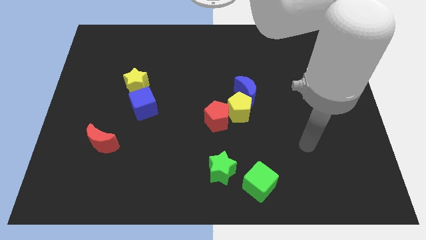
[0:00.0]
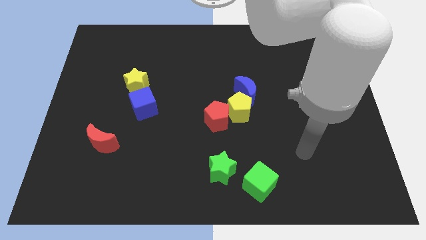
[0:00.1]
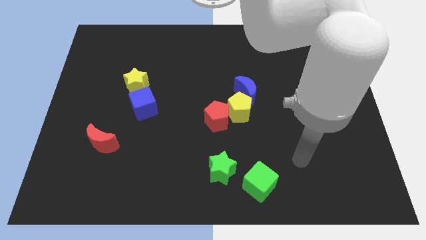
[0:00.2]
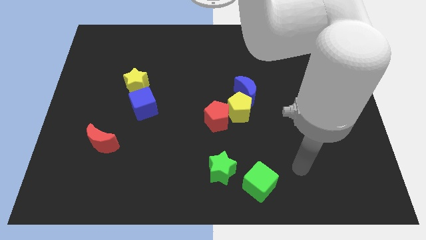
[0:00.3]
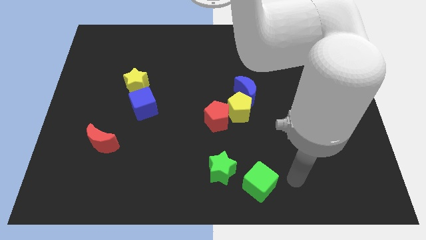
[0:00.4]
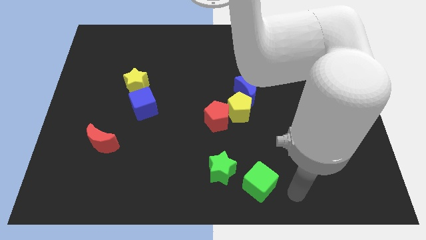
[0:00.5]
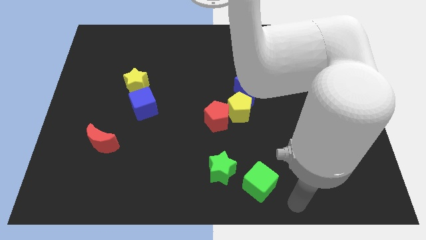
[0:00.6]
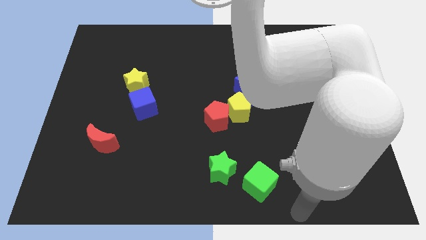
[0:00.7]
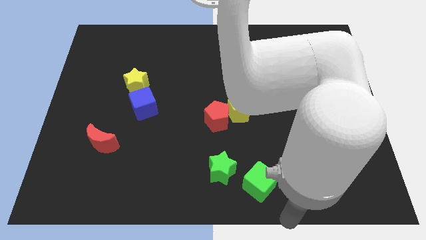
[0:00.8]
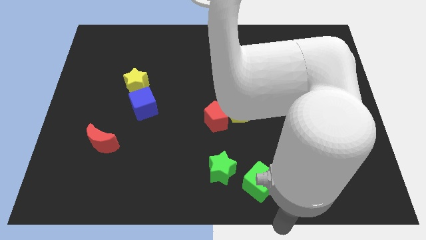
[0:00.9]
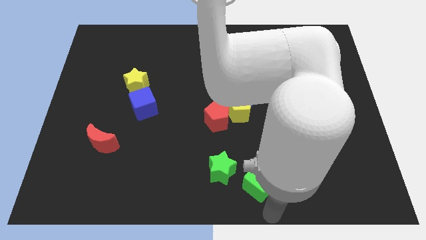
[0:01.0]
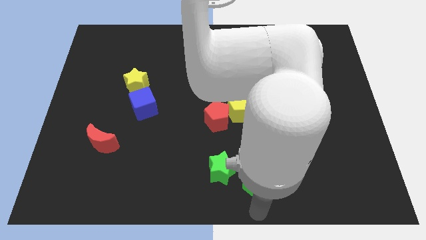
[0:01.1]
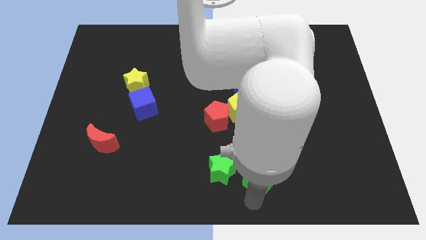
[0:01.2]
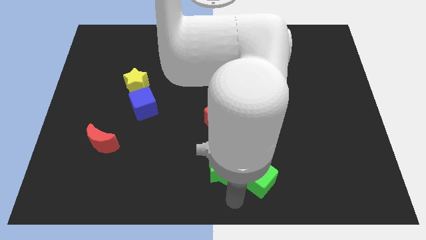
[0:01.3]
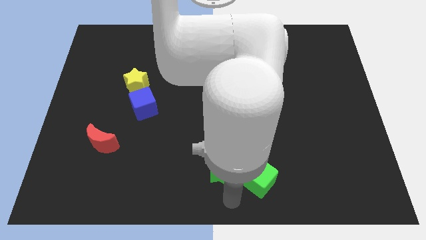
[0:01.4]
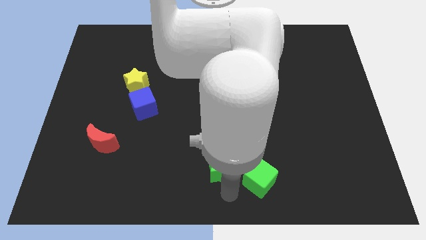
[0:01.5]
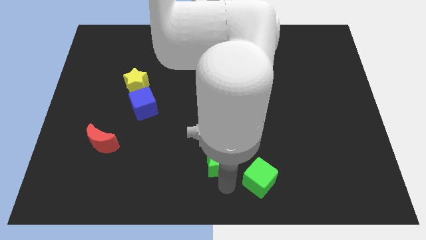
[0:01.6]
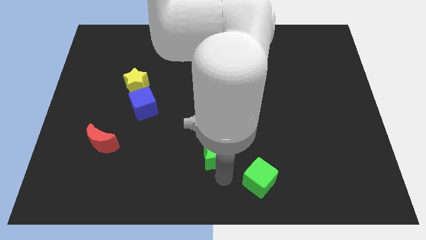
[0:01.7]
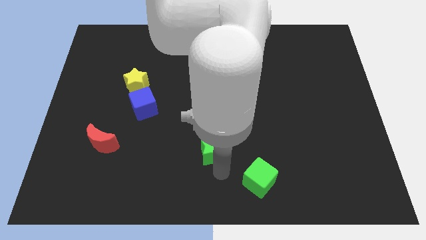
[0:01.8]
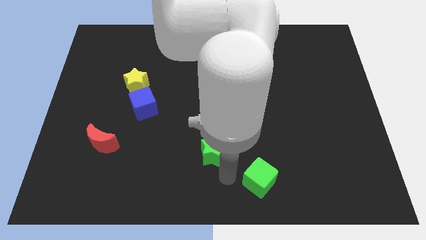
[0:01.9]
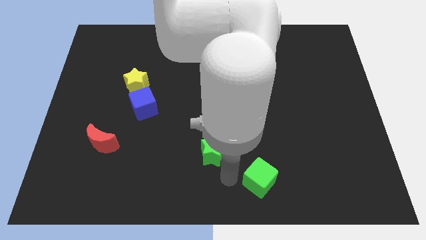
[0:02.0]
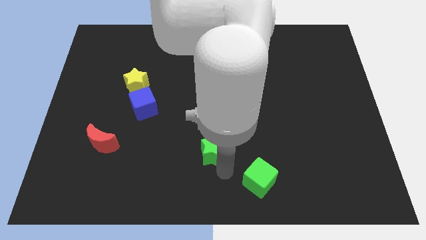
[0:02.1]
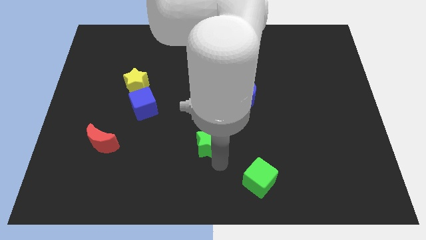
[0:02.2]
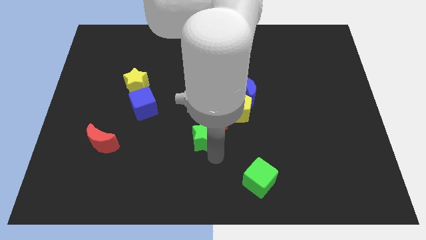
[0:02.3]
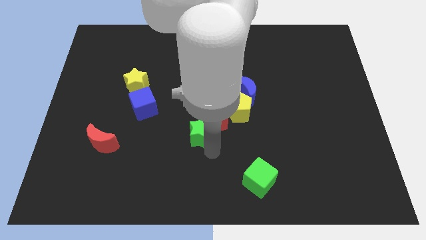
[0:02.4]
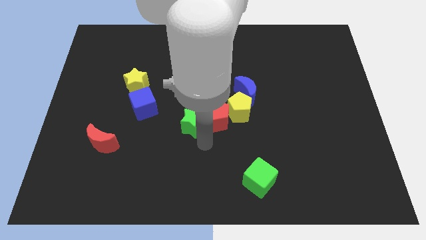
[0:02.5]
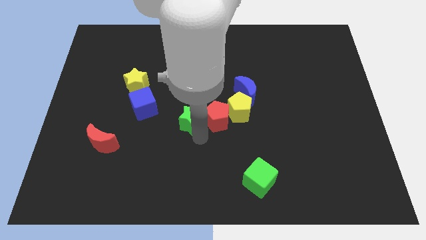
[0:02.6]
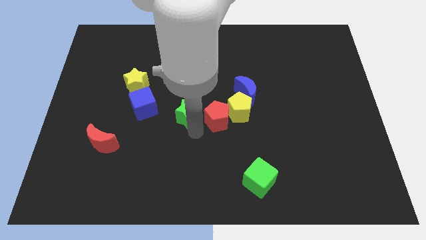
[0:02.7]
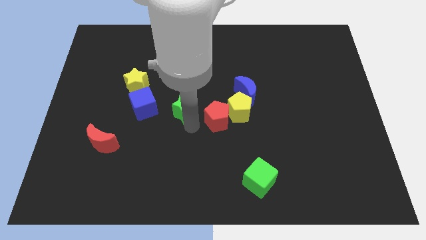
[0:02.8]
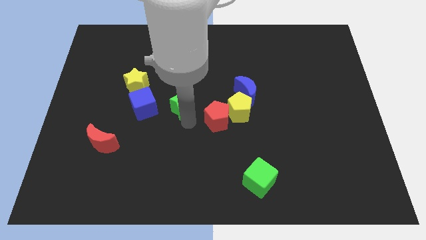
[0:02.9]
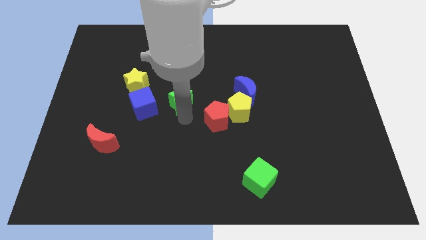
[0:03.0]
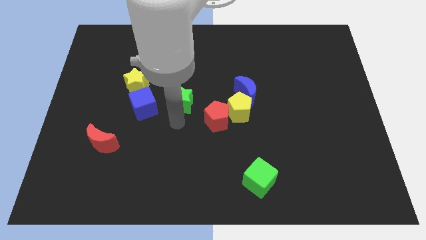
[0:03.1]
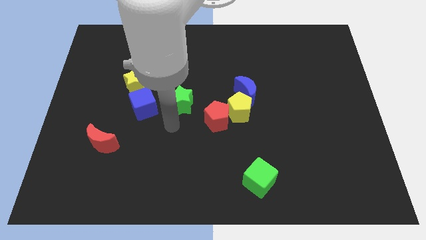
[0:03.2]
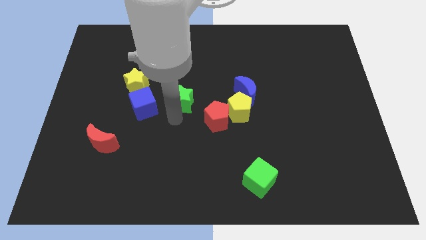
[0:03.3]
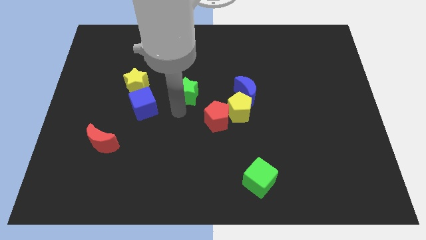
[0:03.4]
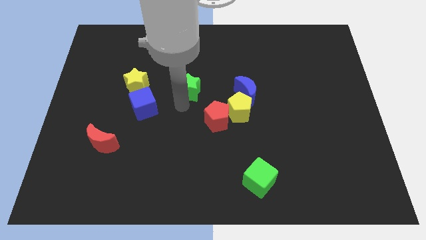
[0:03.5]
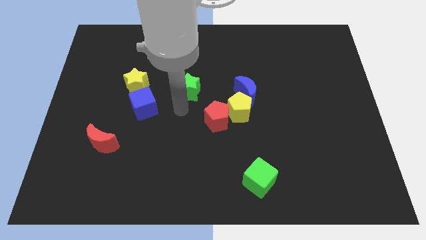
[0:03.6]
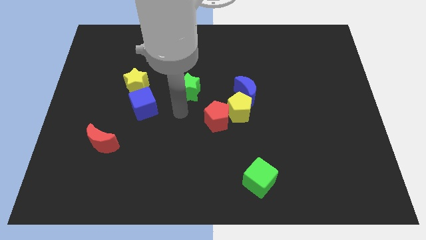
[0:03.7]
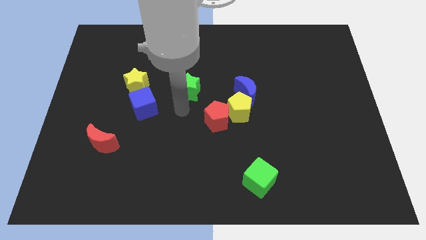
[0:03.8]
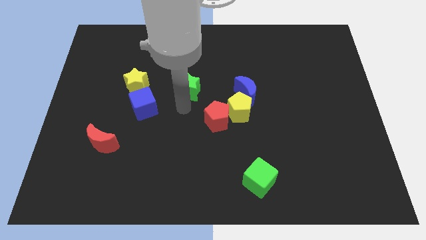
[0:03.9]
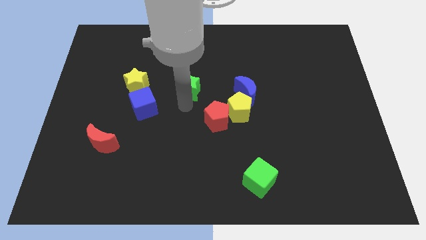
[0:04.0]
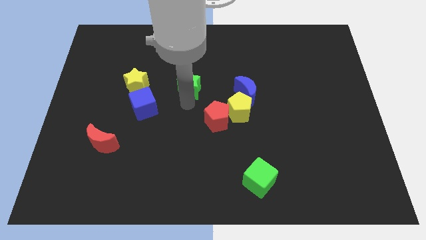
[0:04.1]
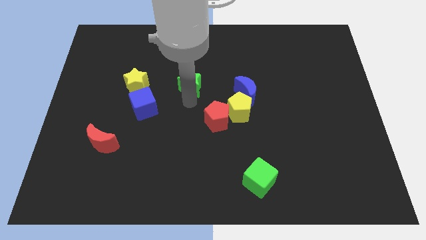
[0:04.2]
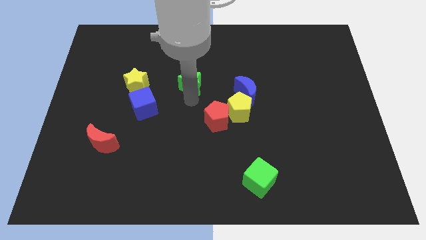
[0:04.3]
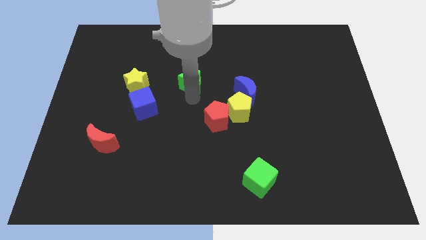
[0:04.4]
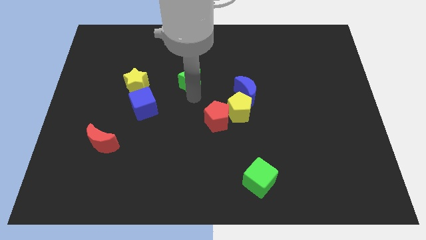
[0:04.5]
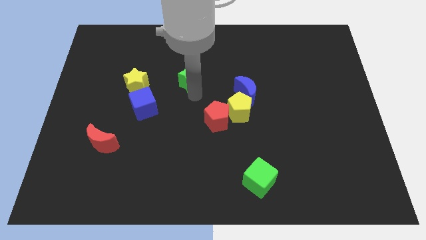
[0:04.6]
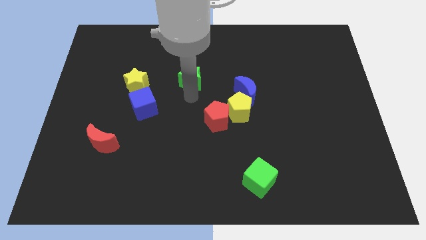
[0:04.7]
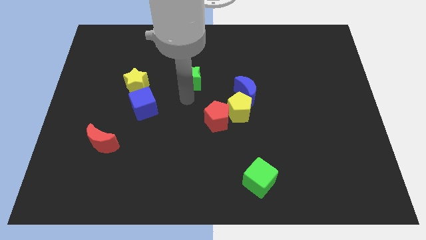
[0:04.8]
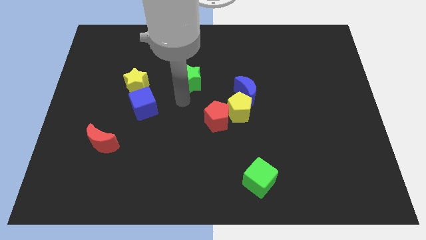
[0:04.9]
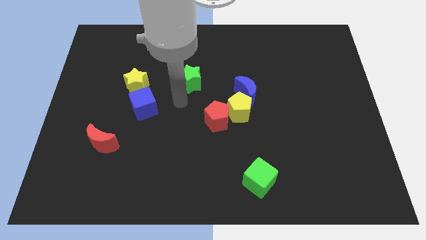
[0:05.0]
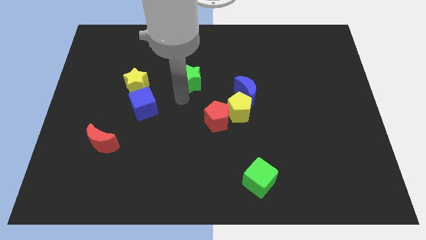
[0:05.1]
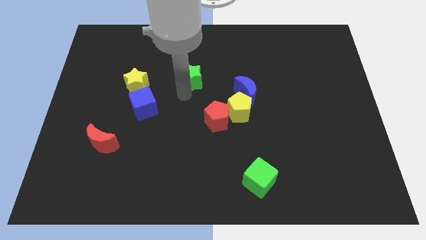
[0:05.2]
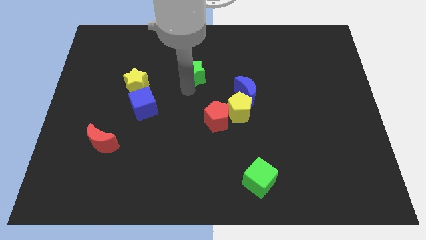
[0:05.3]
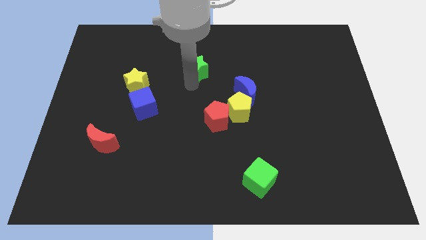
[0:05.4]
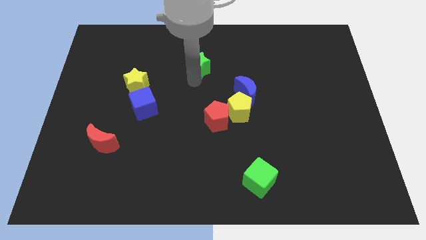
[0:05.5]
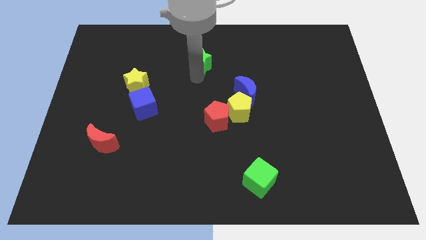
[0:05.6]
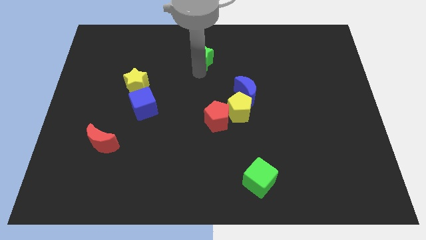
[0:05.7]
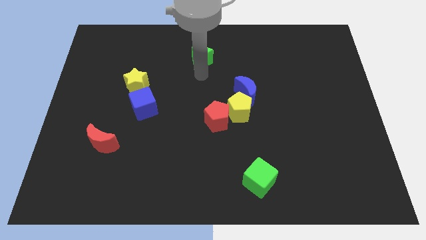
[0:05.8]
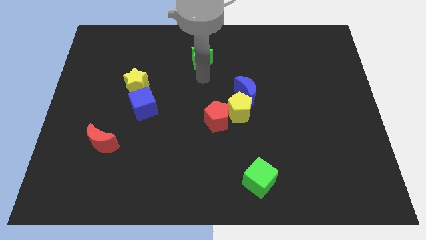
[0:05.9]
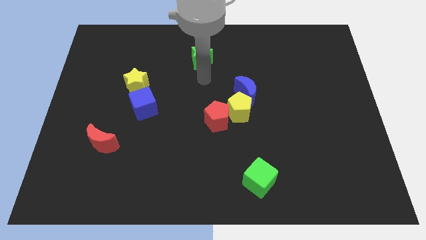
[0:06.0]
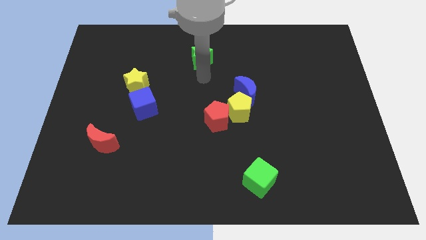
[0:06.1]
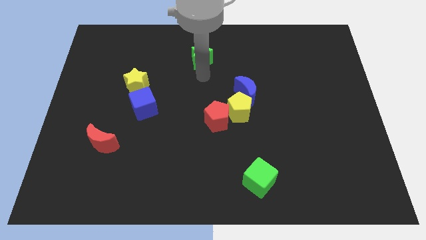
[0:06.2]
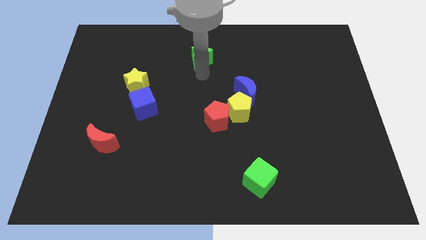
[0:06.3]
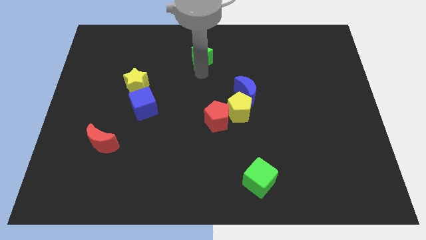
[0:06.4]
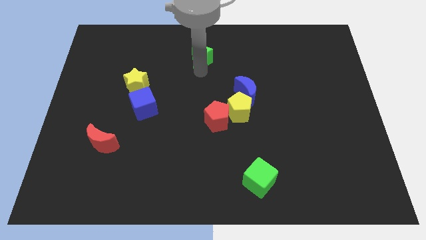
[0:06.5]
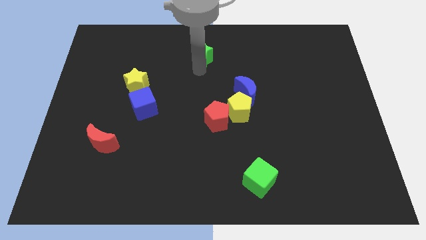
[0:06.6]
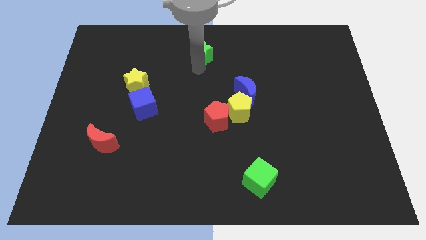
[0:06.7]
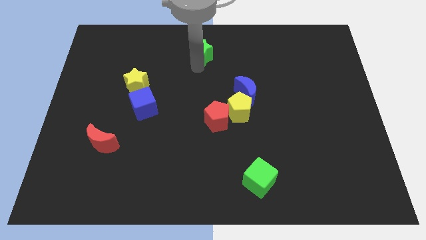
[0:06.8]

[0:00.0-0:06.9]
put the green star to the towards your base

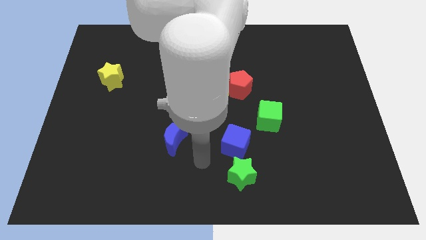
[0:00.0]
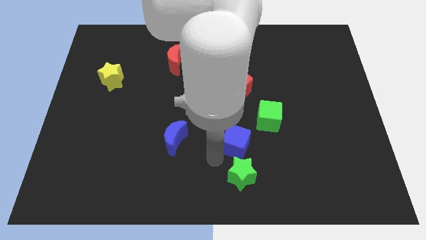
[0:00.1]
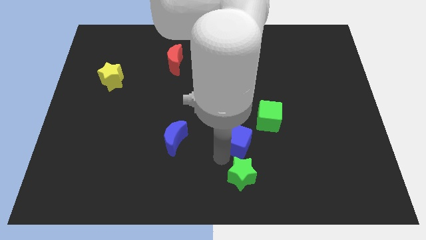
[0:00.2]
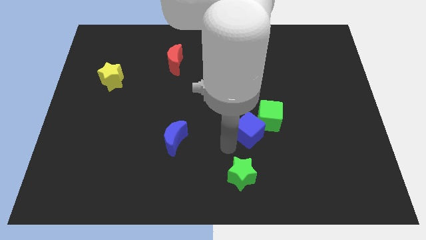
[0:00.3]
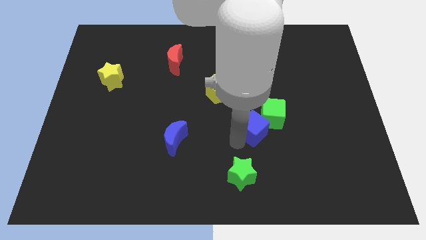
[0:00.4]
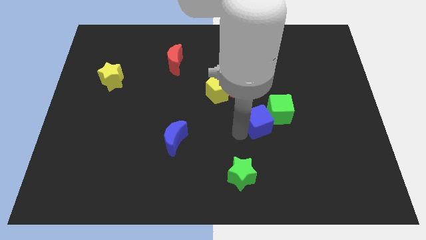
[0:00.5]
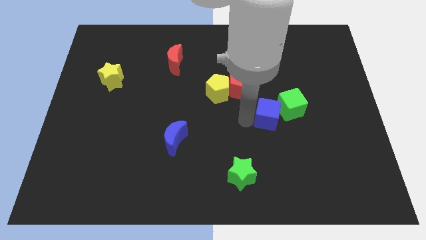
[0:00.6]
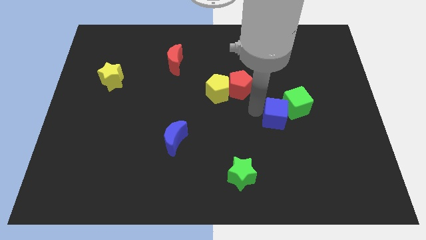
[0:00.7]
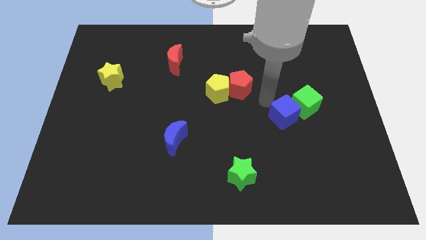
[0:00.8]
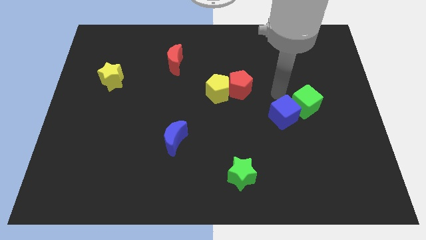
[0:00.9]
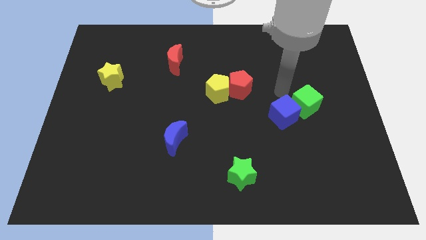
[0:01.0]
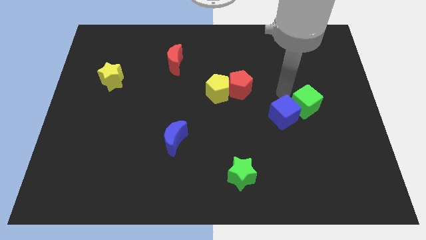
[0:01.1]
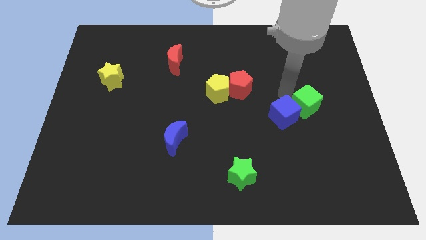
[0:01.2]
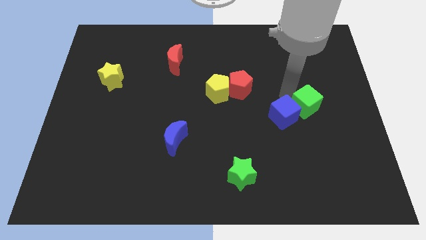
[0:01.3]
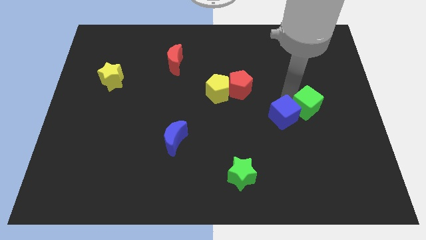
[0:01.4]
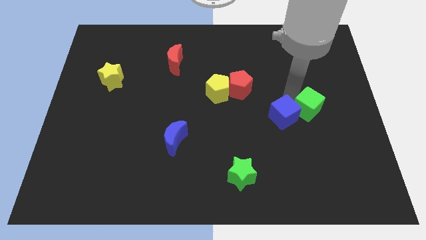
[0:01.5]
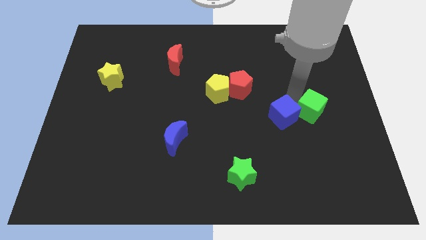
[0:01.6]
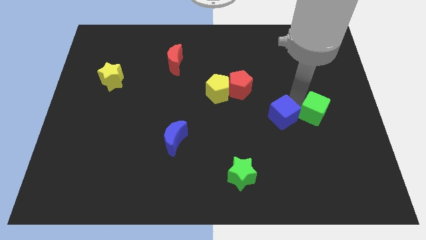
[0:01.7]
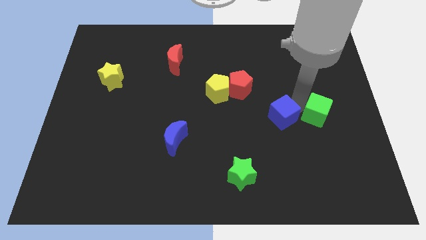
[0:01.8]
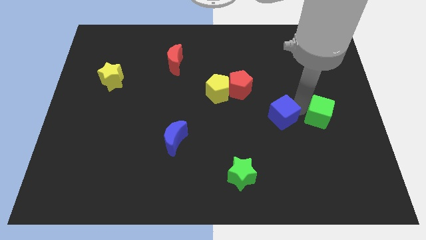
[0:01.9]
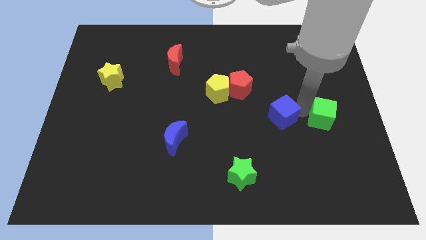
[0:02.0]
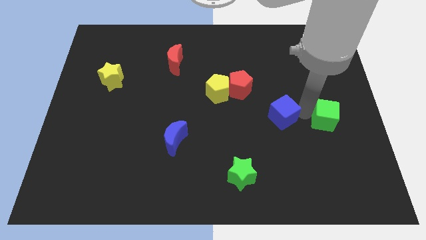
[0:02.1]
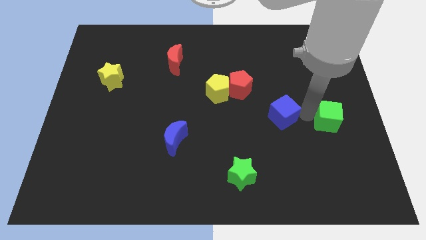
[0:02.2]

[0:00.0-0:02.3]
put the green cube to the center right
